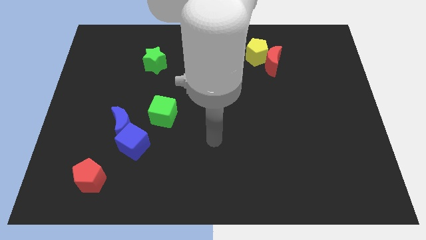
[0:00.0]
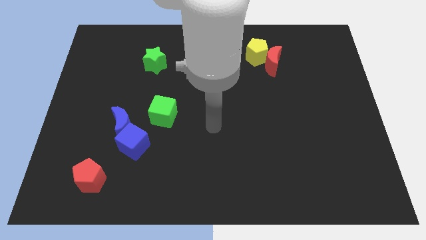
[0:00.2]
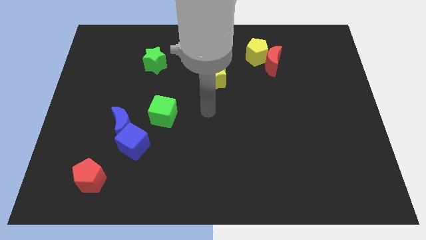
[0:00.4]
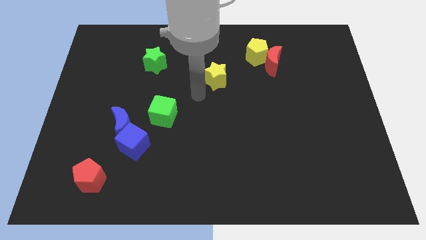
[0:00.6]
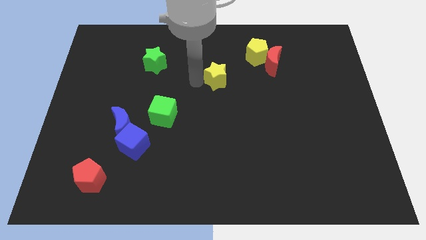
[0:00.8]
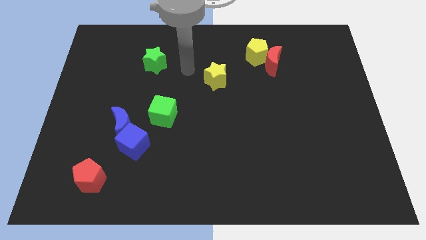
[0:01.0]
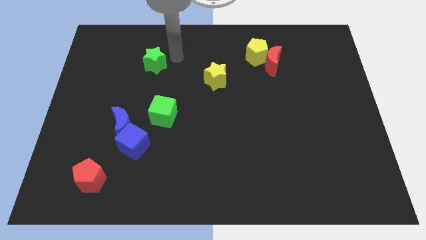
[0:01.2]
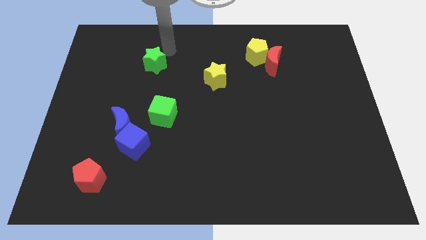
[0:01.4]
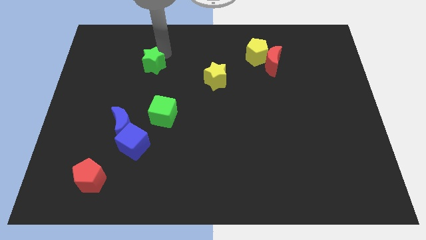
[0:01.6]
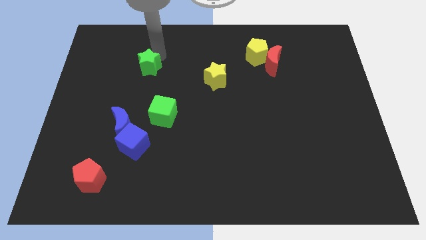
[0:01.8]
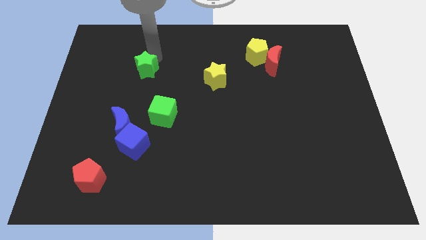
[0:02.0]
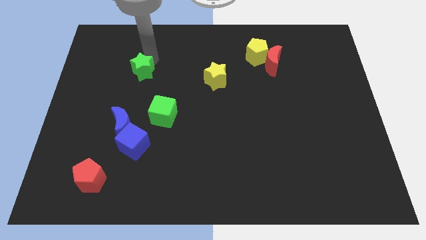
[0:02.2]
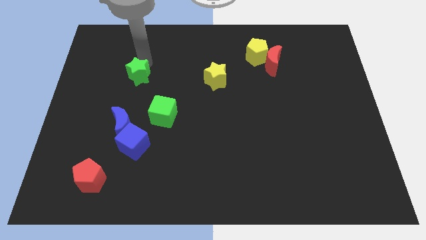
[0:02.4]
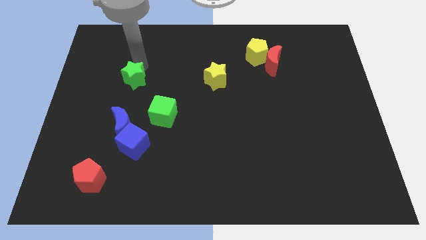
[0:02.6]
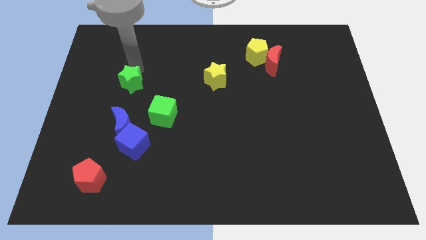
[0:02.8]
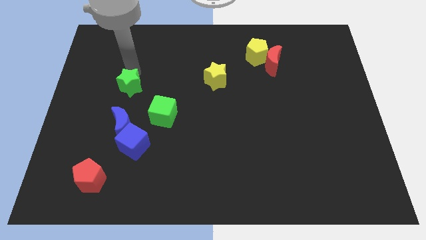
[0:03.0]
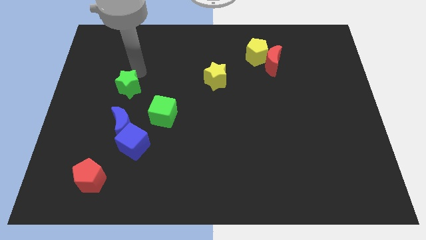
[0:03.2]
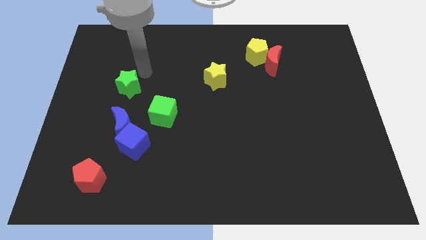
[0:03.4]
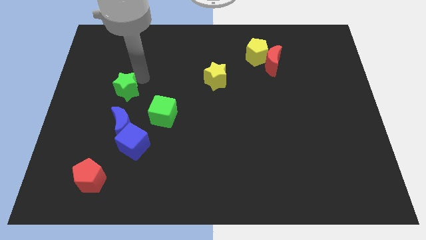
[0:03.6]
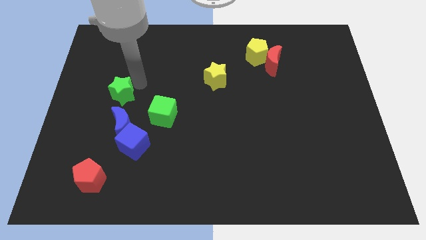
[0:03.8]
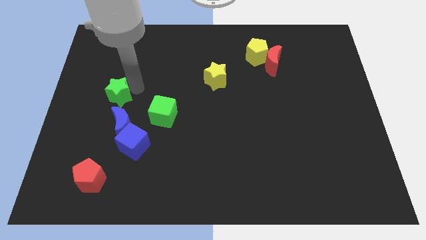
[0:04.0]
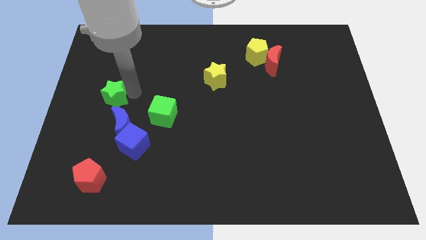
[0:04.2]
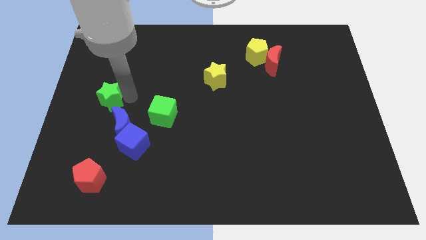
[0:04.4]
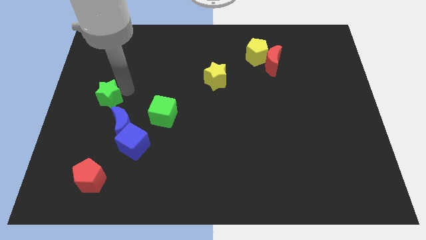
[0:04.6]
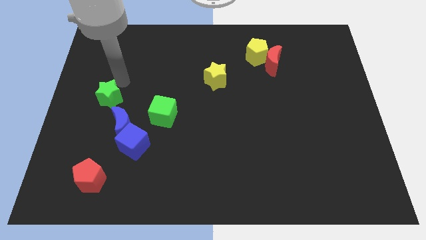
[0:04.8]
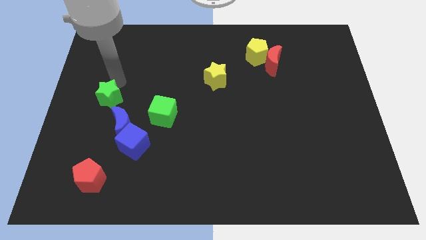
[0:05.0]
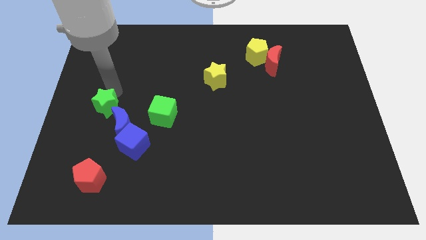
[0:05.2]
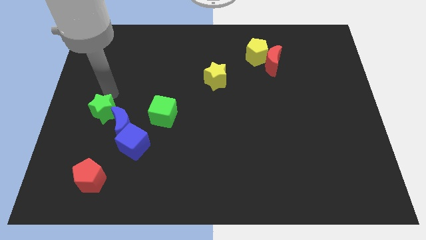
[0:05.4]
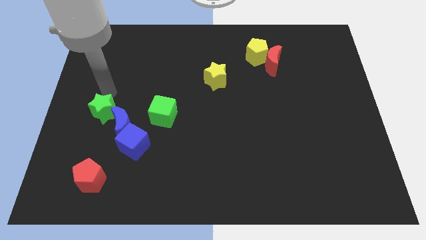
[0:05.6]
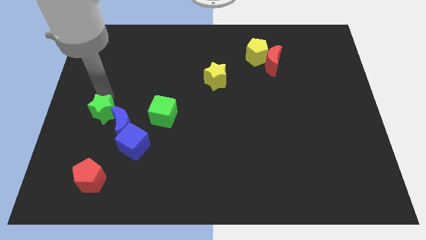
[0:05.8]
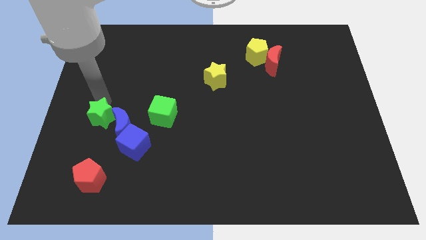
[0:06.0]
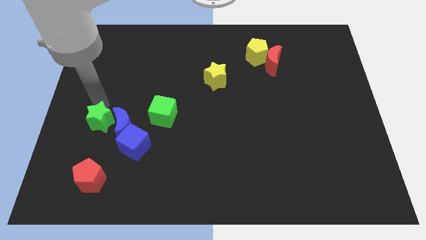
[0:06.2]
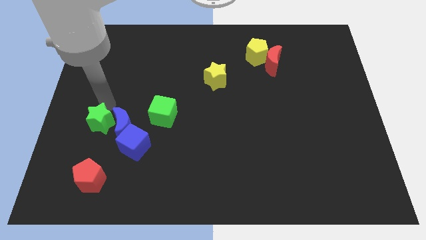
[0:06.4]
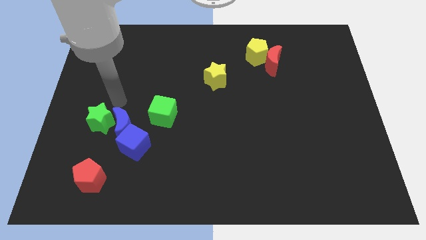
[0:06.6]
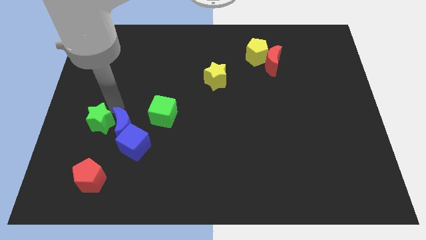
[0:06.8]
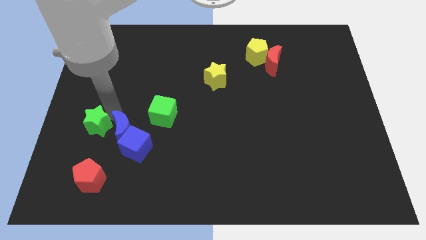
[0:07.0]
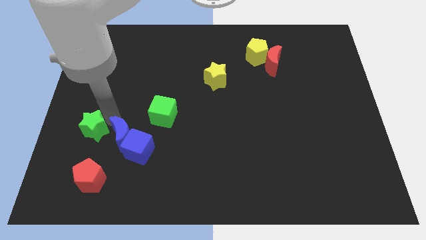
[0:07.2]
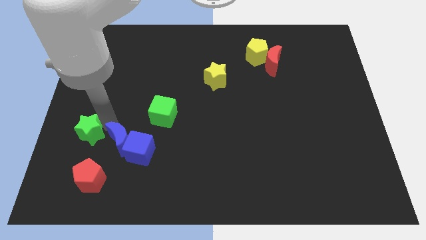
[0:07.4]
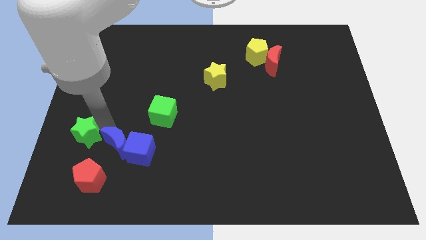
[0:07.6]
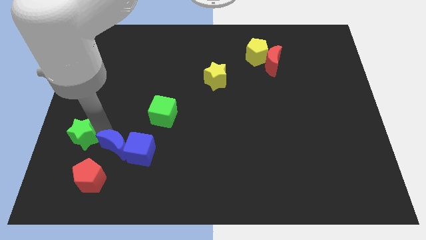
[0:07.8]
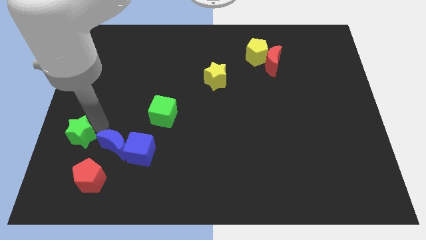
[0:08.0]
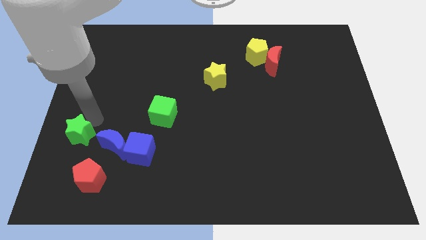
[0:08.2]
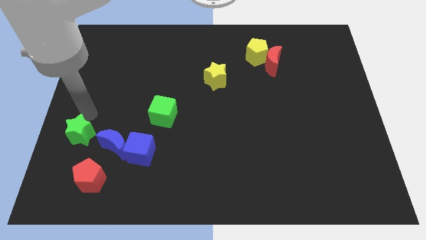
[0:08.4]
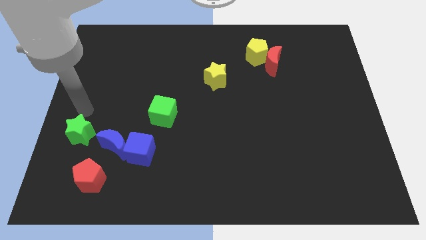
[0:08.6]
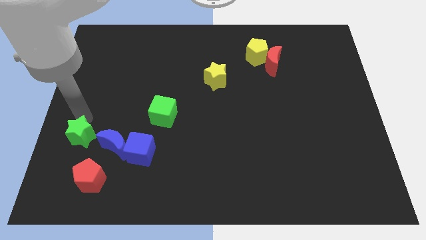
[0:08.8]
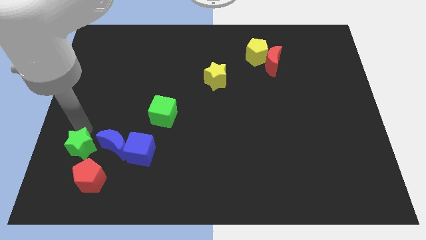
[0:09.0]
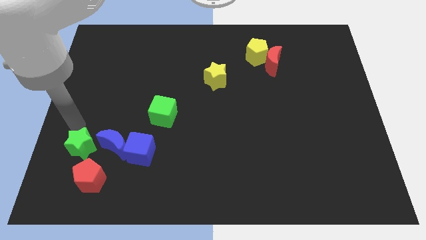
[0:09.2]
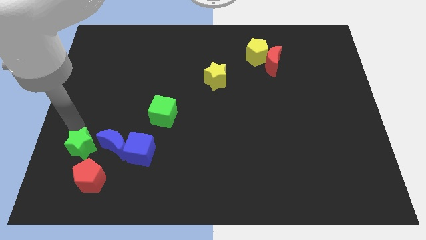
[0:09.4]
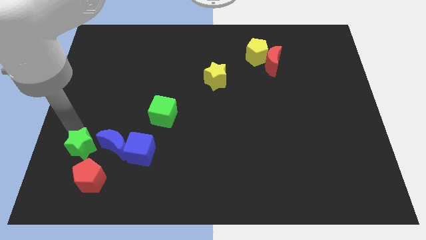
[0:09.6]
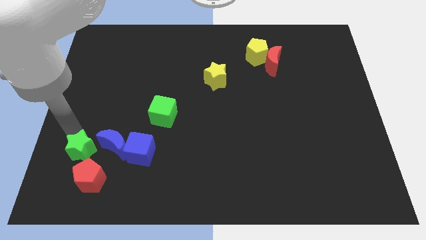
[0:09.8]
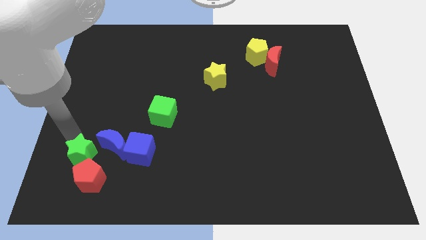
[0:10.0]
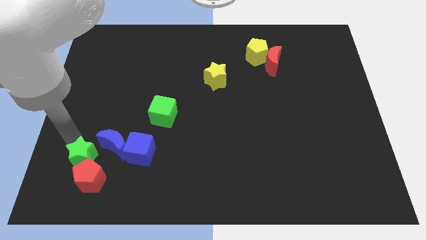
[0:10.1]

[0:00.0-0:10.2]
move the green star to the red pentagon

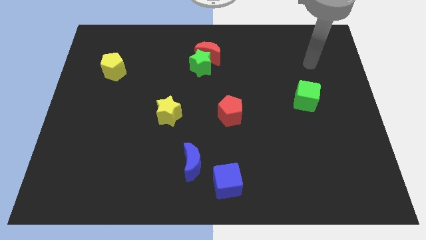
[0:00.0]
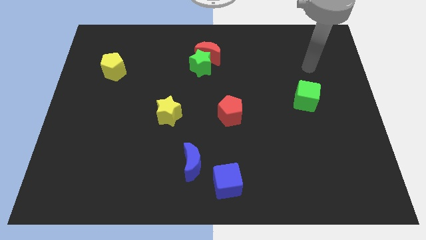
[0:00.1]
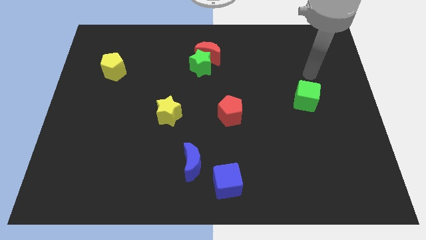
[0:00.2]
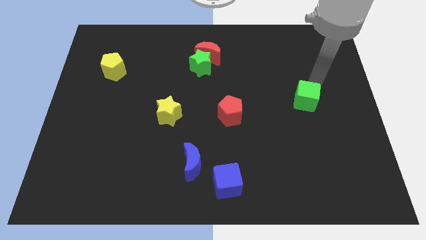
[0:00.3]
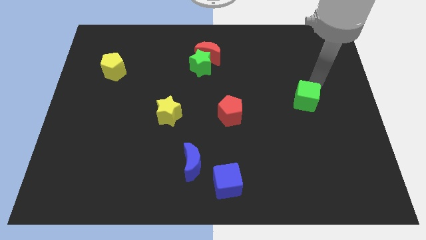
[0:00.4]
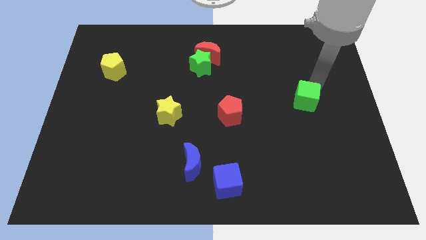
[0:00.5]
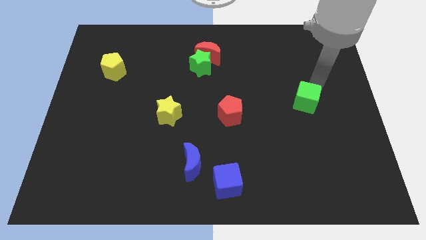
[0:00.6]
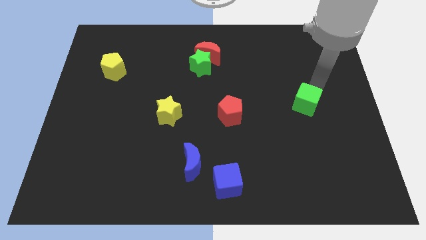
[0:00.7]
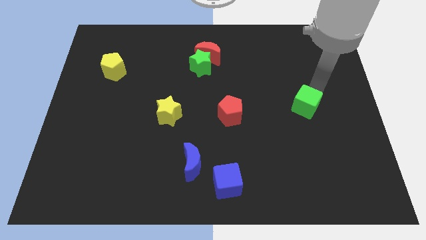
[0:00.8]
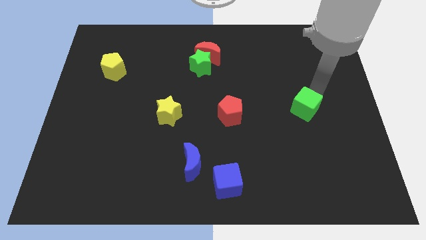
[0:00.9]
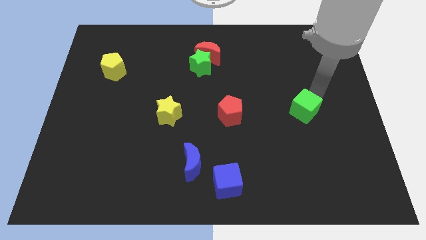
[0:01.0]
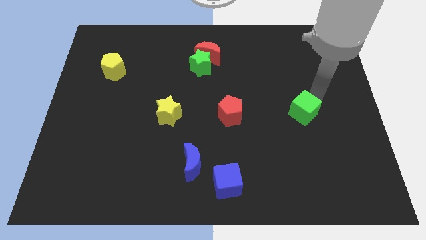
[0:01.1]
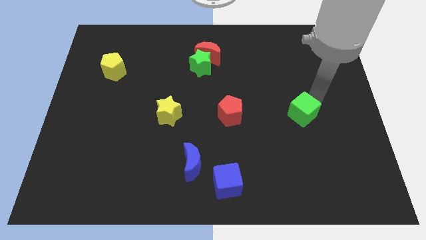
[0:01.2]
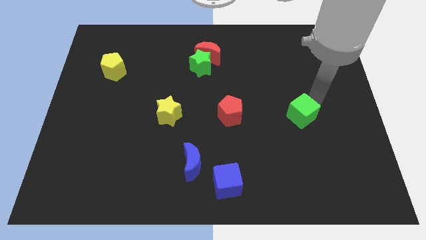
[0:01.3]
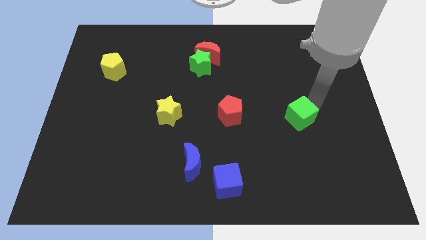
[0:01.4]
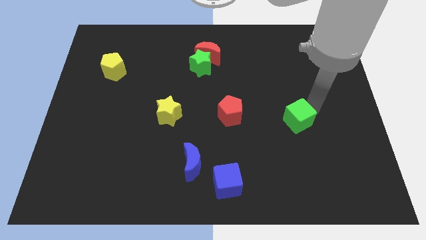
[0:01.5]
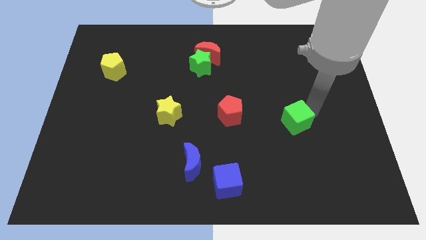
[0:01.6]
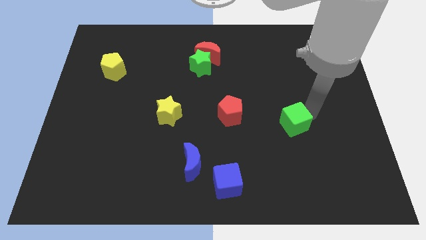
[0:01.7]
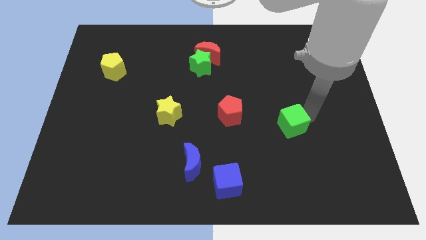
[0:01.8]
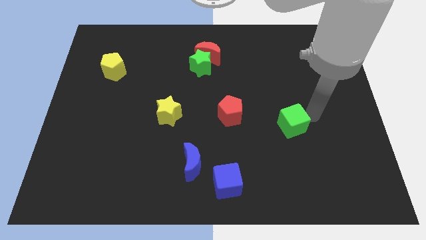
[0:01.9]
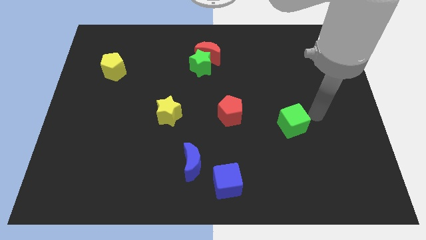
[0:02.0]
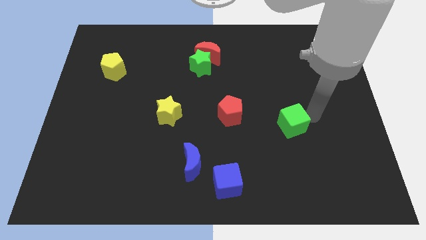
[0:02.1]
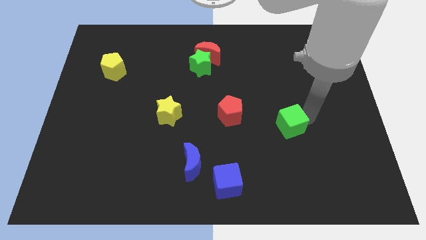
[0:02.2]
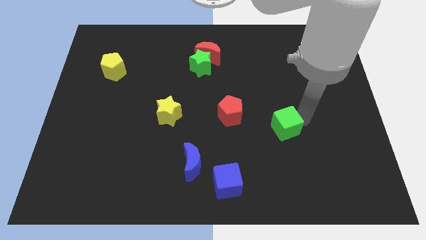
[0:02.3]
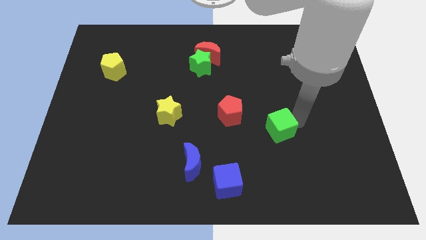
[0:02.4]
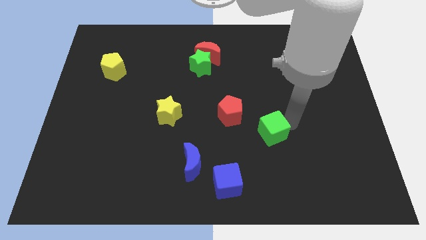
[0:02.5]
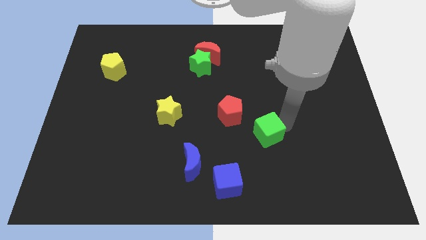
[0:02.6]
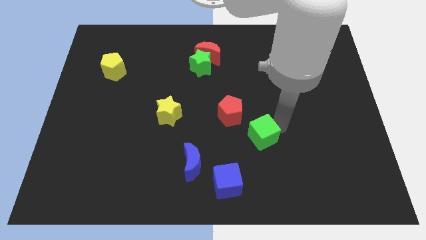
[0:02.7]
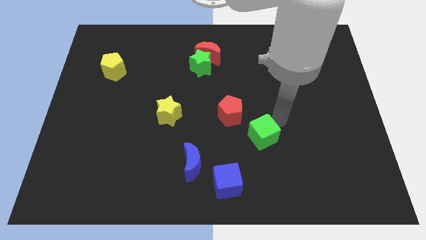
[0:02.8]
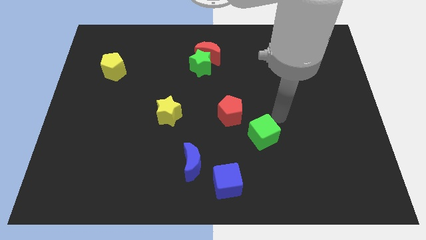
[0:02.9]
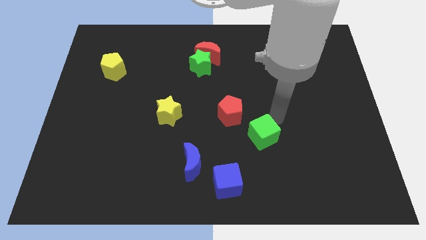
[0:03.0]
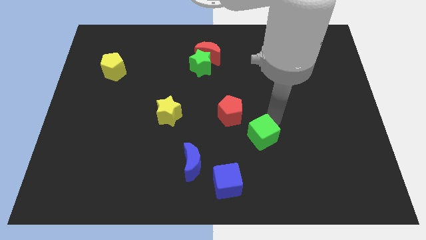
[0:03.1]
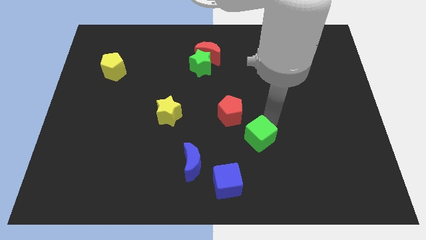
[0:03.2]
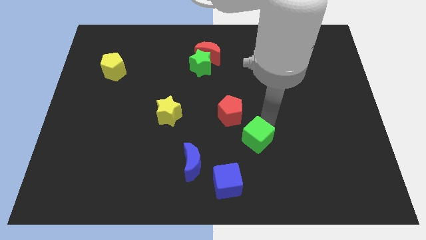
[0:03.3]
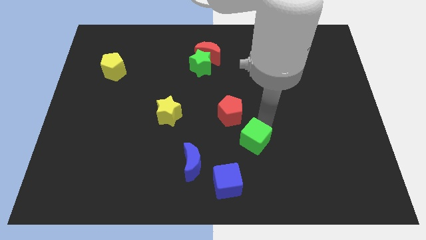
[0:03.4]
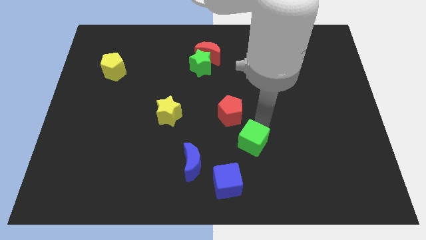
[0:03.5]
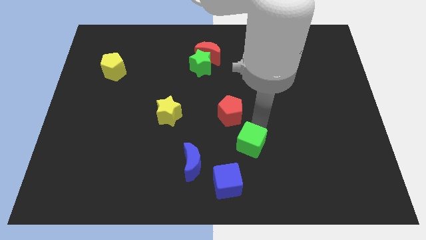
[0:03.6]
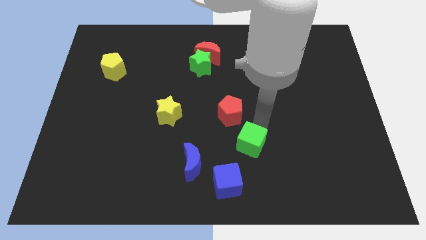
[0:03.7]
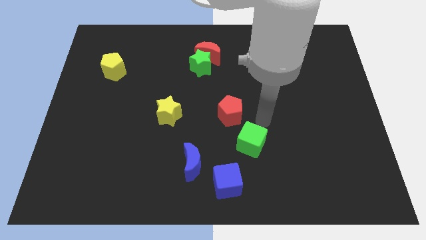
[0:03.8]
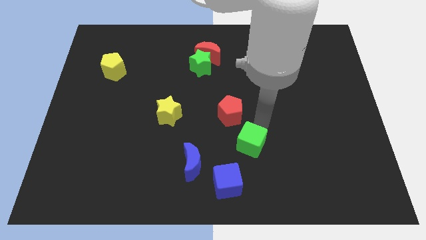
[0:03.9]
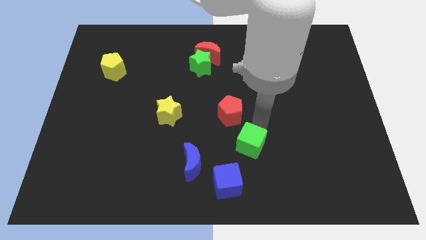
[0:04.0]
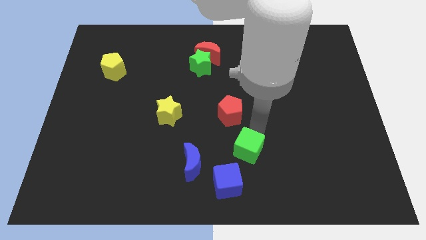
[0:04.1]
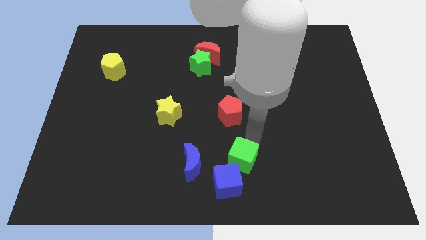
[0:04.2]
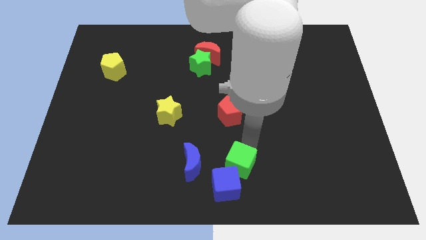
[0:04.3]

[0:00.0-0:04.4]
push the green cube close to the blue cube
